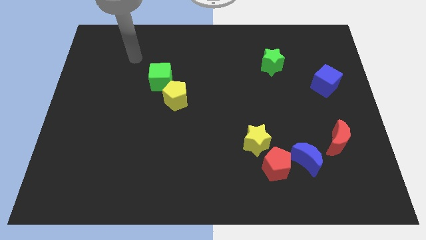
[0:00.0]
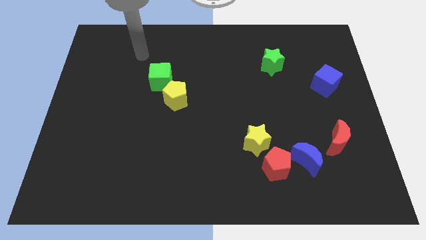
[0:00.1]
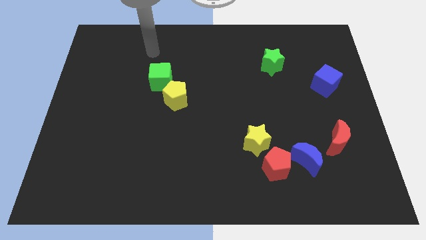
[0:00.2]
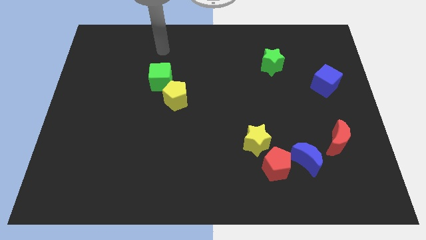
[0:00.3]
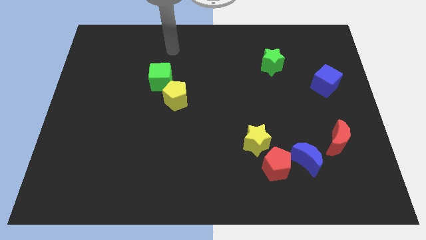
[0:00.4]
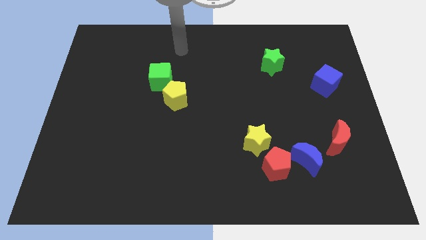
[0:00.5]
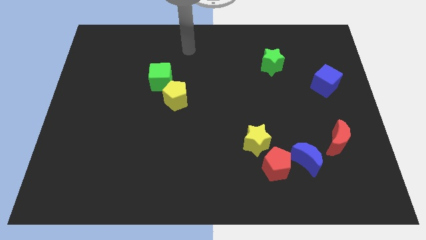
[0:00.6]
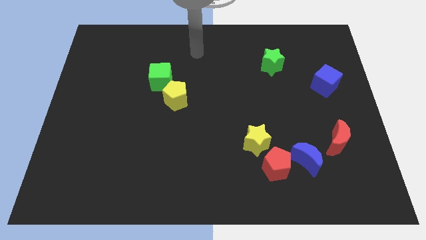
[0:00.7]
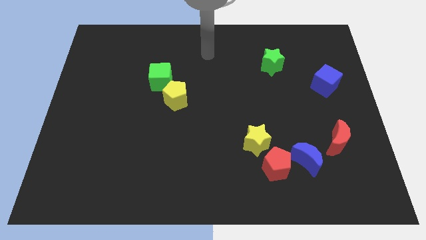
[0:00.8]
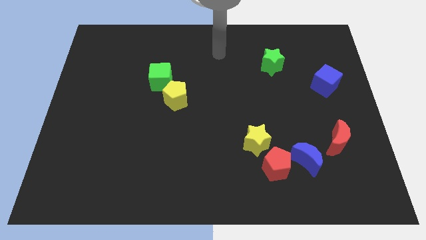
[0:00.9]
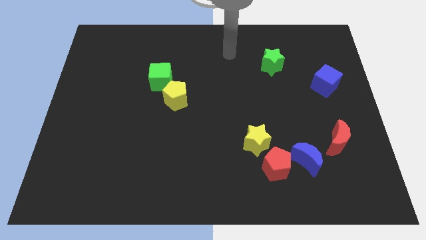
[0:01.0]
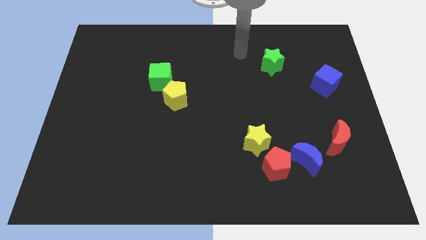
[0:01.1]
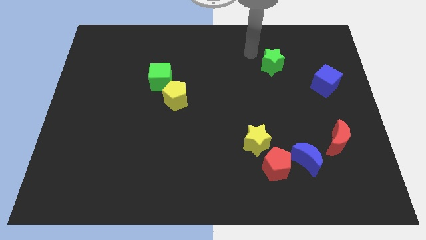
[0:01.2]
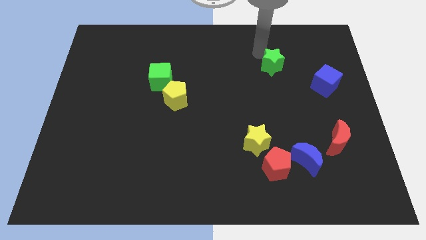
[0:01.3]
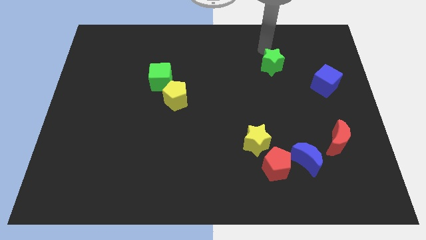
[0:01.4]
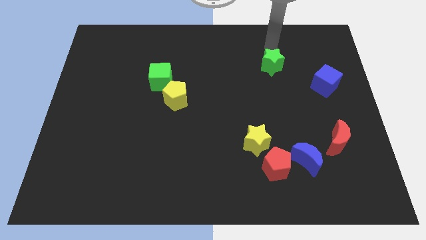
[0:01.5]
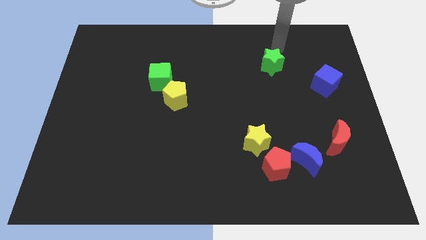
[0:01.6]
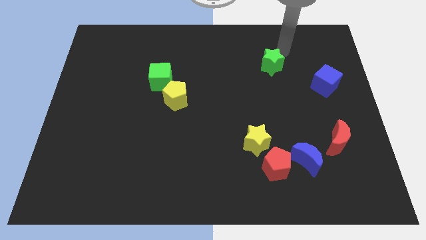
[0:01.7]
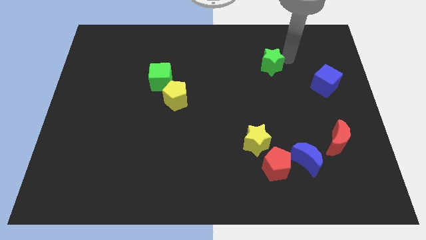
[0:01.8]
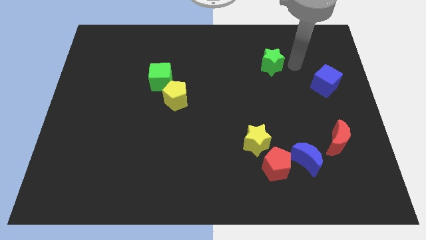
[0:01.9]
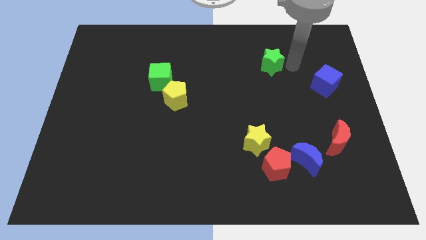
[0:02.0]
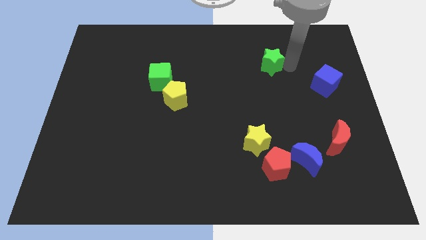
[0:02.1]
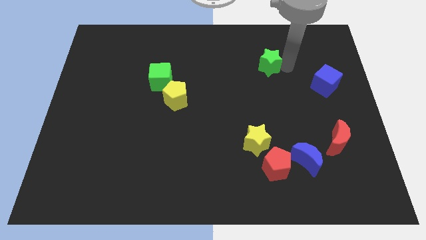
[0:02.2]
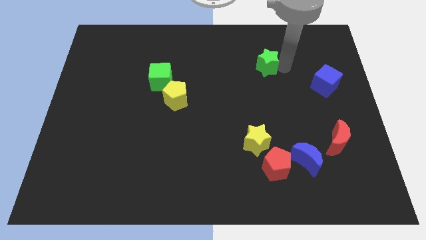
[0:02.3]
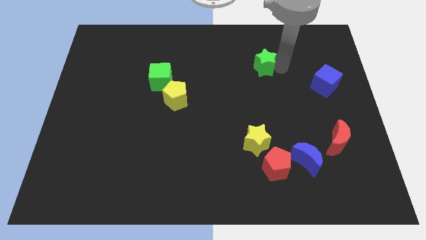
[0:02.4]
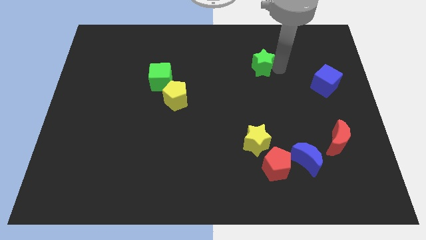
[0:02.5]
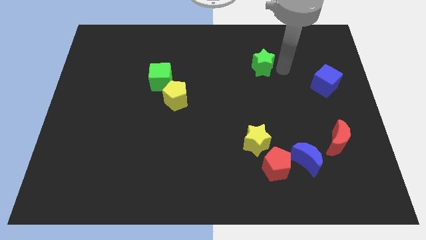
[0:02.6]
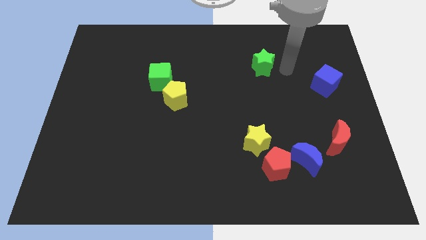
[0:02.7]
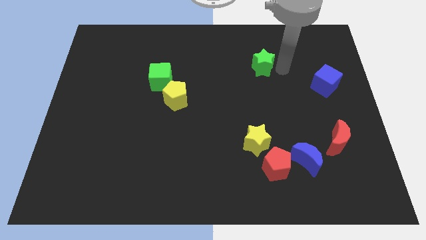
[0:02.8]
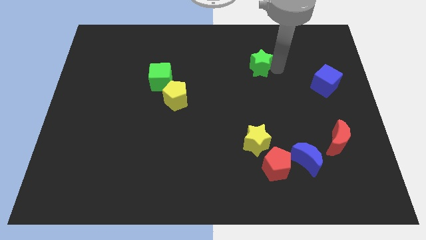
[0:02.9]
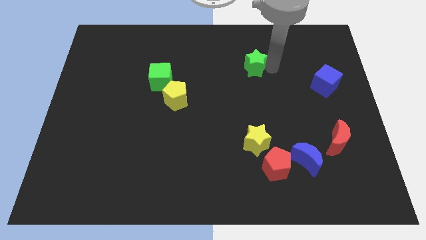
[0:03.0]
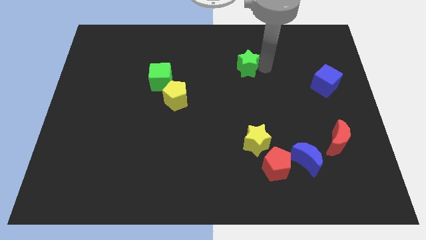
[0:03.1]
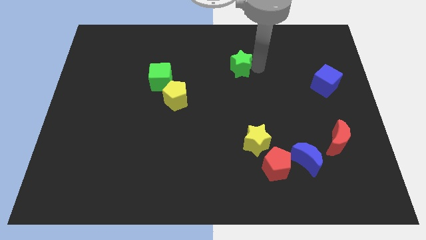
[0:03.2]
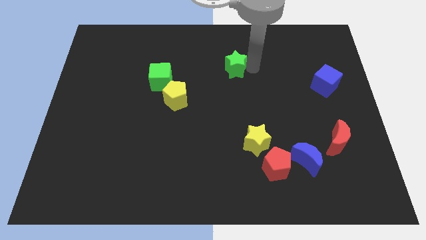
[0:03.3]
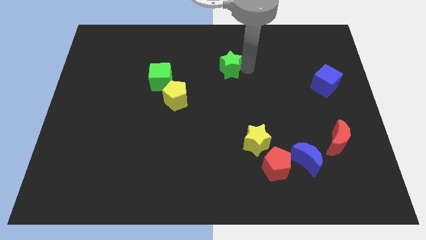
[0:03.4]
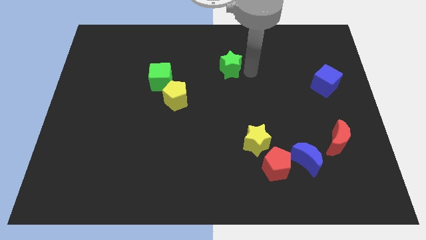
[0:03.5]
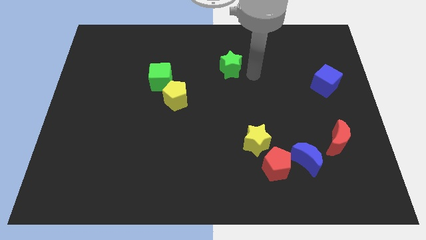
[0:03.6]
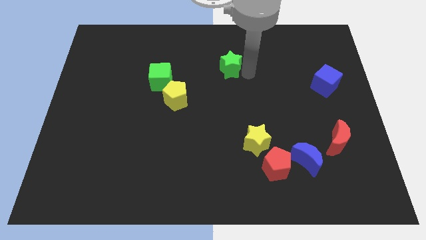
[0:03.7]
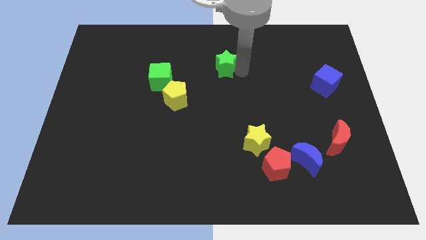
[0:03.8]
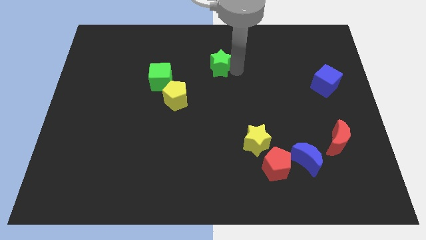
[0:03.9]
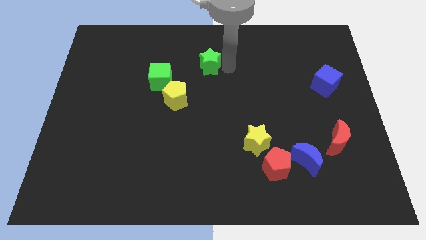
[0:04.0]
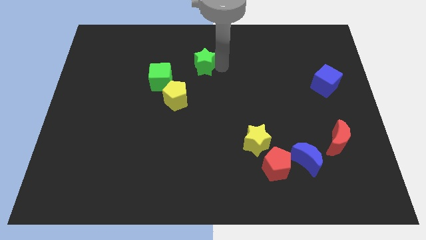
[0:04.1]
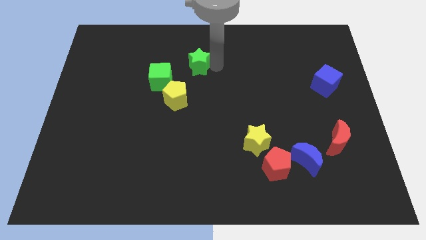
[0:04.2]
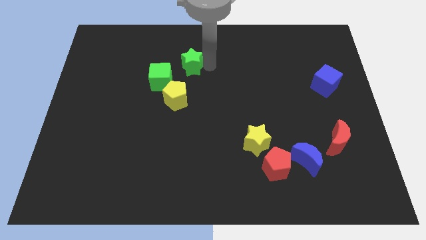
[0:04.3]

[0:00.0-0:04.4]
move the green star left

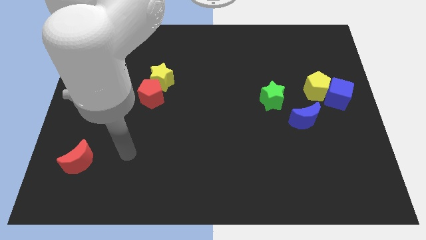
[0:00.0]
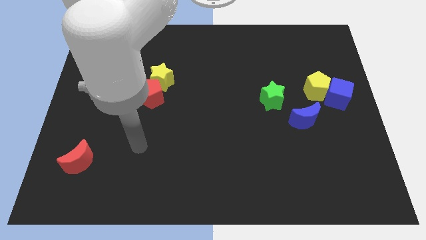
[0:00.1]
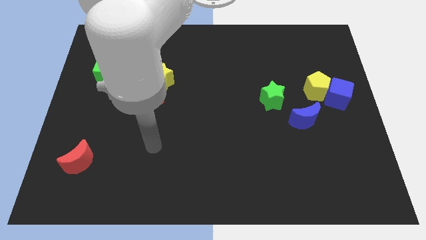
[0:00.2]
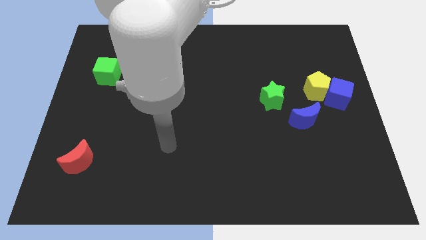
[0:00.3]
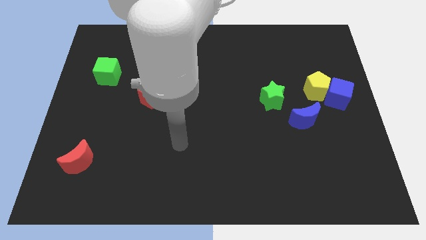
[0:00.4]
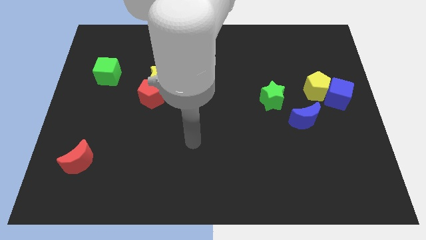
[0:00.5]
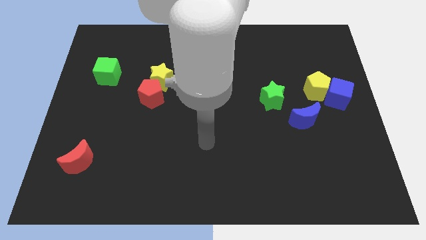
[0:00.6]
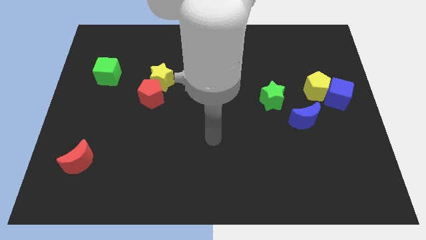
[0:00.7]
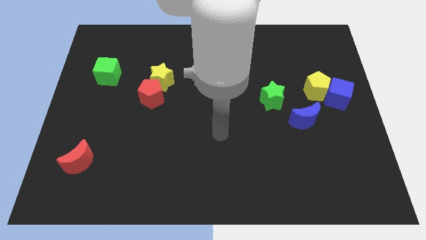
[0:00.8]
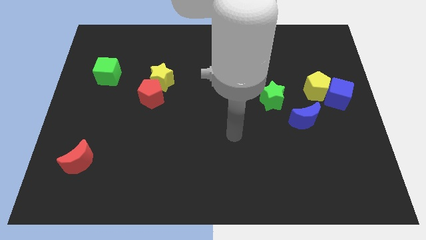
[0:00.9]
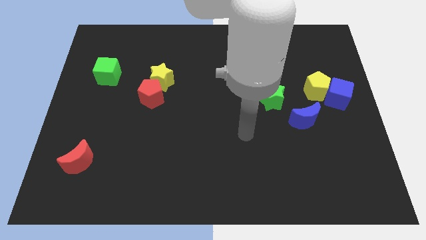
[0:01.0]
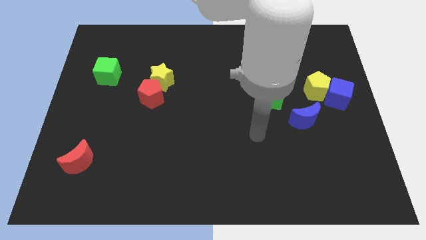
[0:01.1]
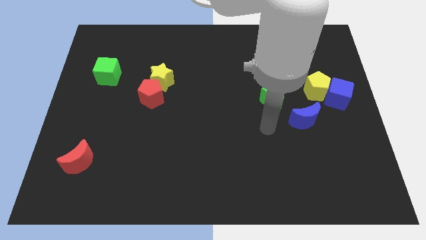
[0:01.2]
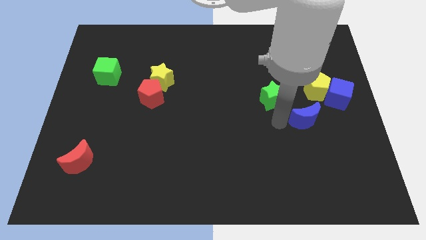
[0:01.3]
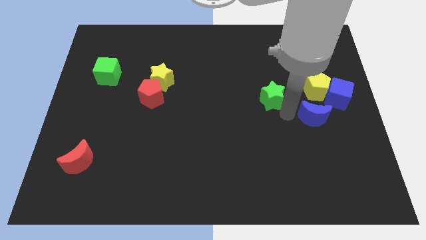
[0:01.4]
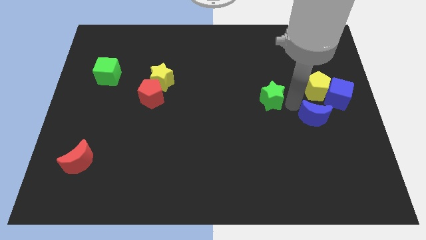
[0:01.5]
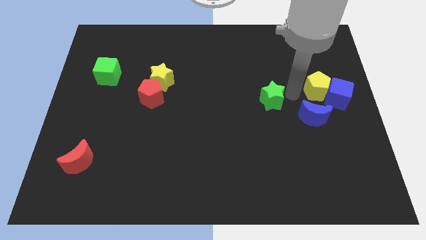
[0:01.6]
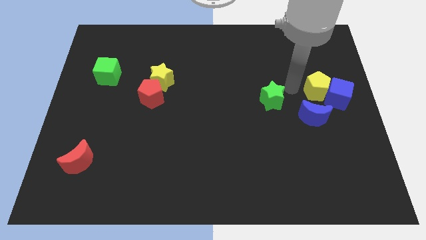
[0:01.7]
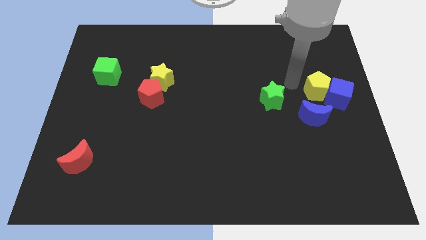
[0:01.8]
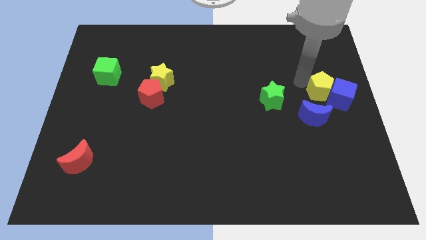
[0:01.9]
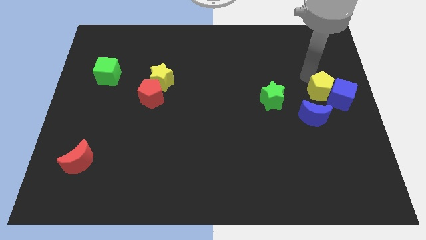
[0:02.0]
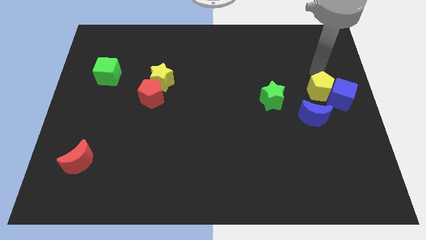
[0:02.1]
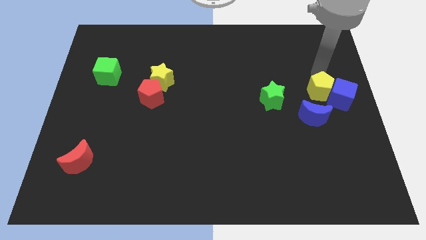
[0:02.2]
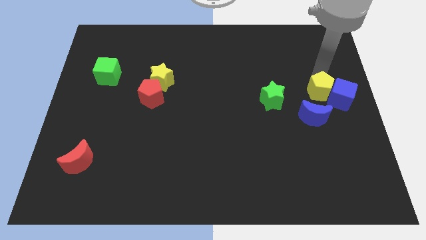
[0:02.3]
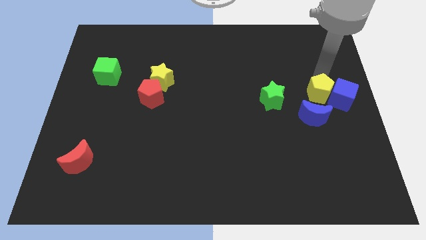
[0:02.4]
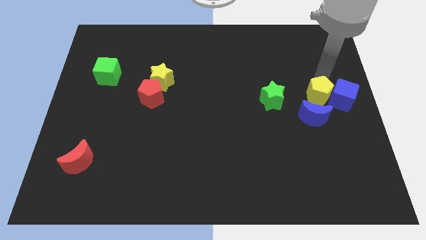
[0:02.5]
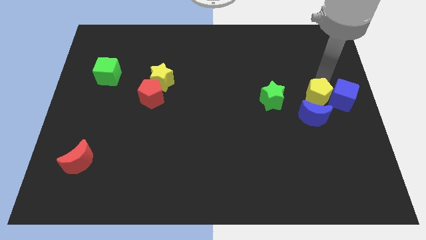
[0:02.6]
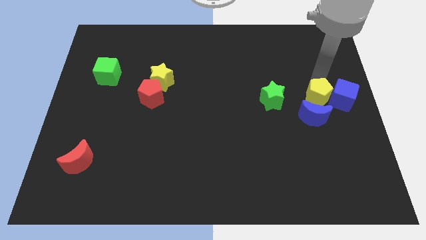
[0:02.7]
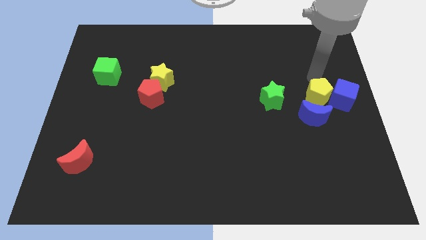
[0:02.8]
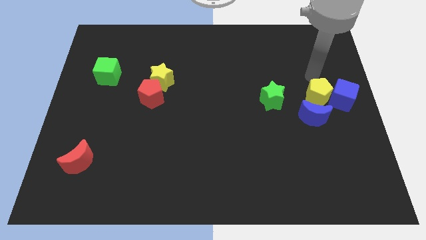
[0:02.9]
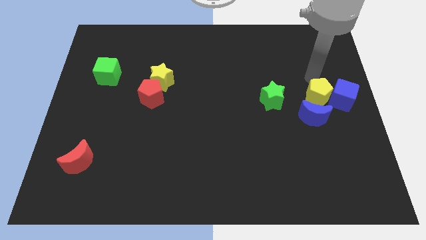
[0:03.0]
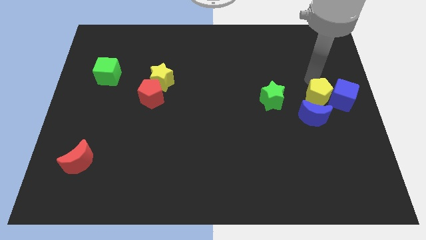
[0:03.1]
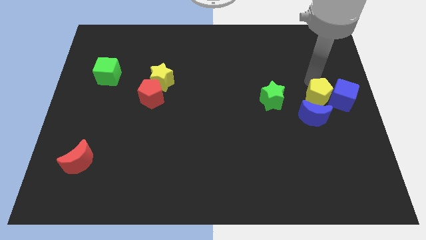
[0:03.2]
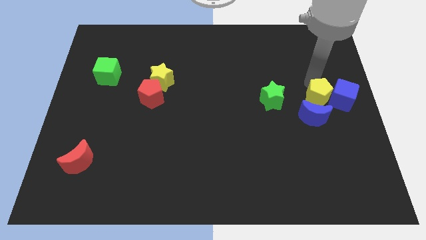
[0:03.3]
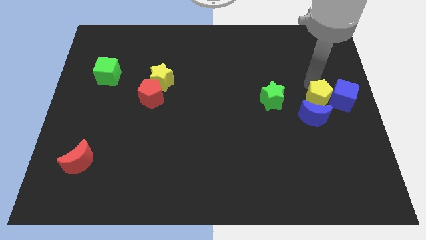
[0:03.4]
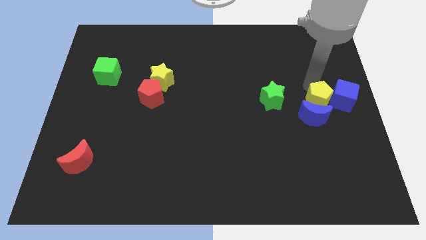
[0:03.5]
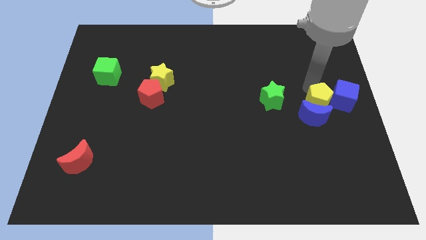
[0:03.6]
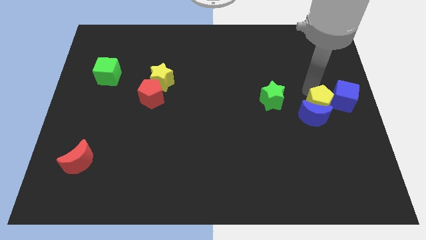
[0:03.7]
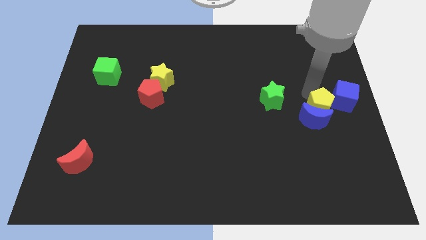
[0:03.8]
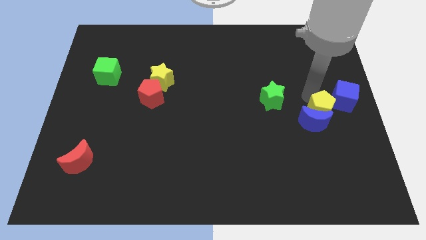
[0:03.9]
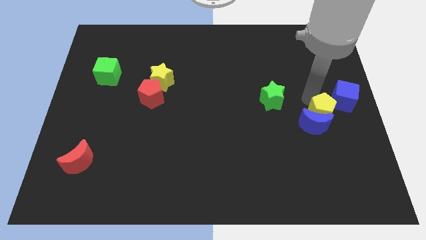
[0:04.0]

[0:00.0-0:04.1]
slightly move the yellow pentagon downwards
